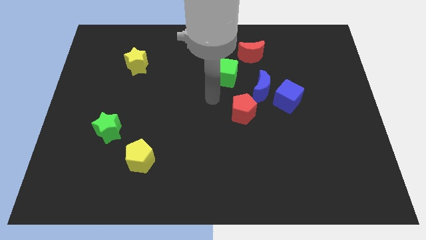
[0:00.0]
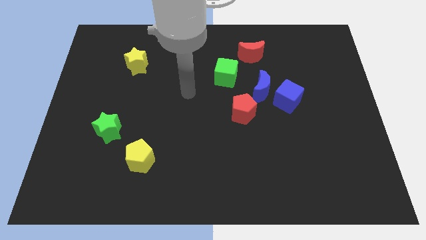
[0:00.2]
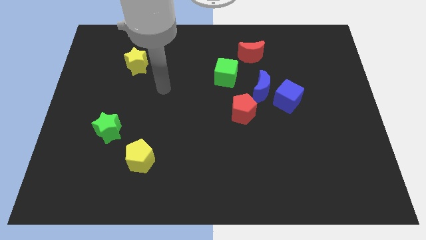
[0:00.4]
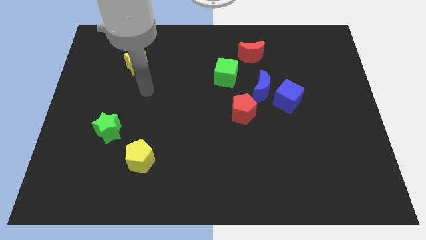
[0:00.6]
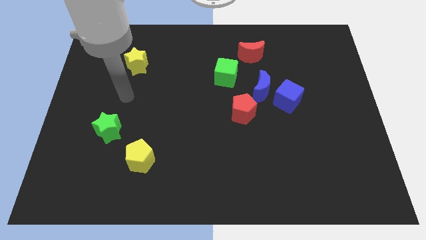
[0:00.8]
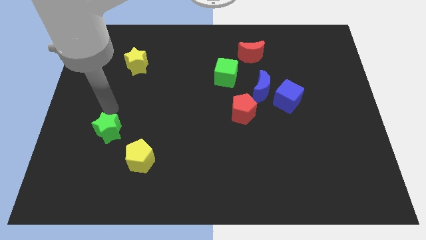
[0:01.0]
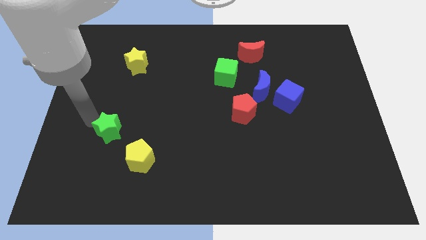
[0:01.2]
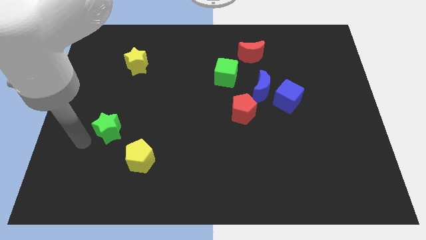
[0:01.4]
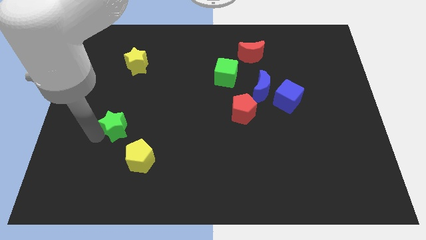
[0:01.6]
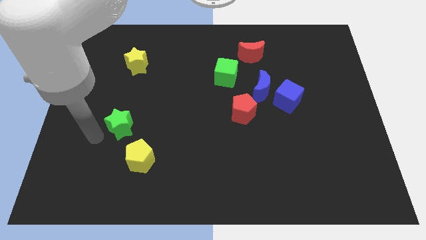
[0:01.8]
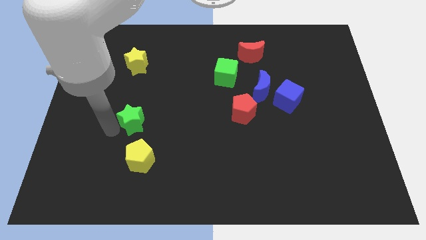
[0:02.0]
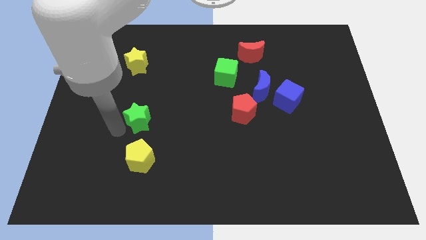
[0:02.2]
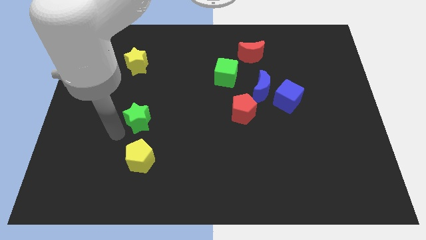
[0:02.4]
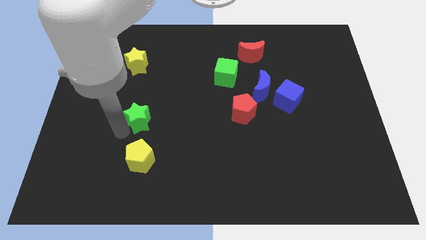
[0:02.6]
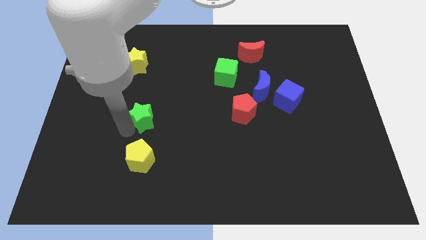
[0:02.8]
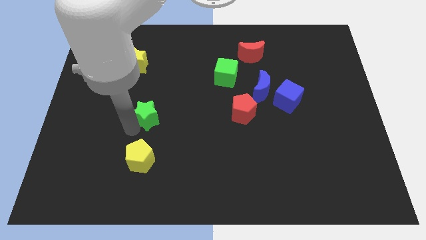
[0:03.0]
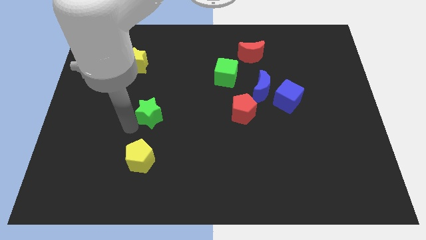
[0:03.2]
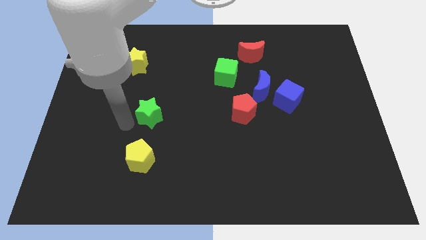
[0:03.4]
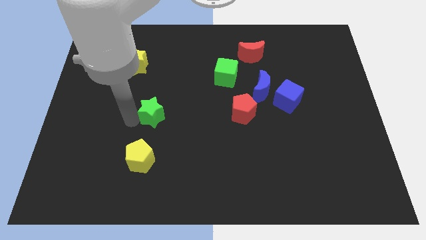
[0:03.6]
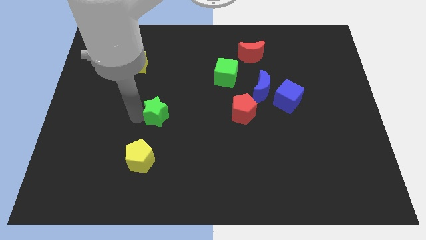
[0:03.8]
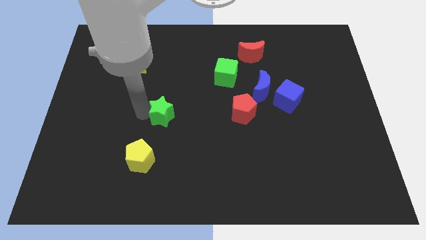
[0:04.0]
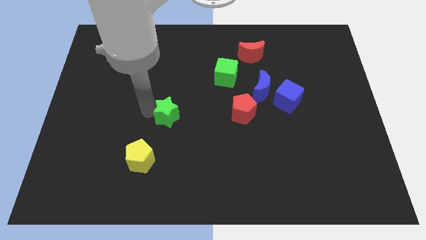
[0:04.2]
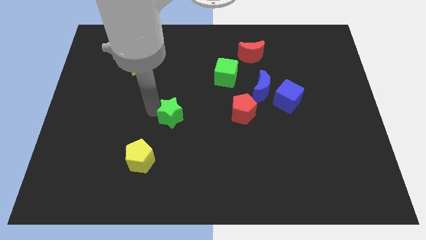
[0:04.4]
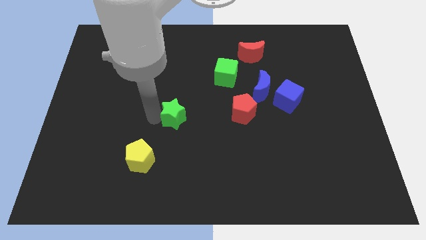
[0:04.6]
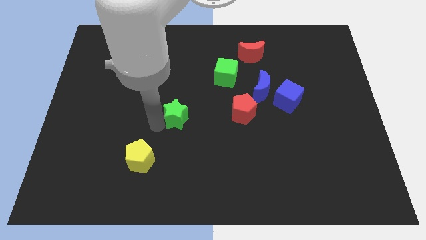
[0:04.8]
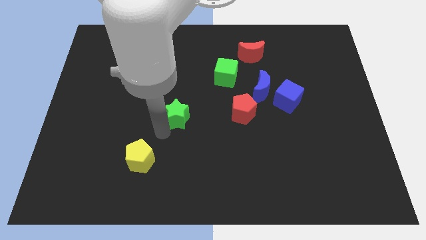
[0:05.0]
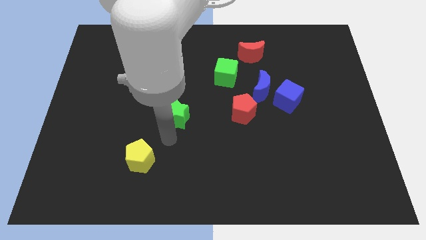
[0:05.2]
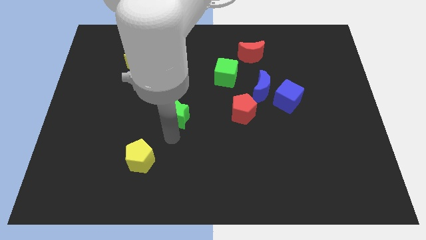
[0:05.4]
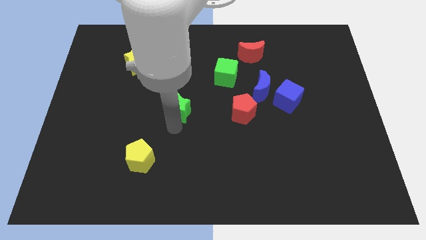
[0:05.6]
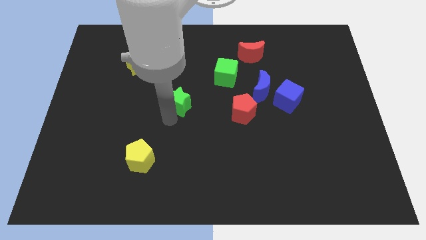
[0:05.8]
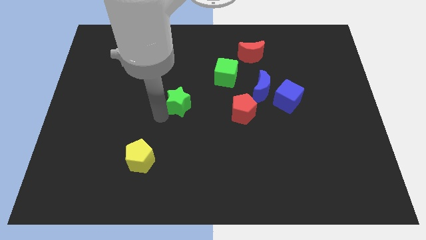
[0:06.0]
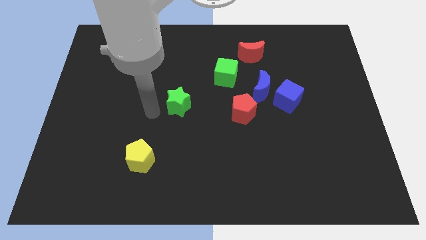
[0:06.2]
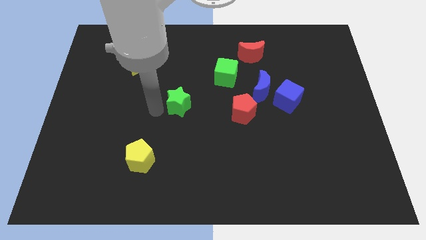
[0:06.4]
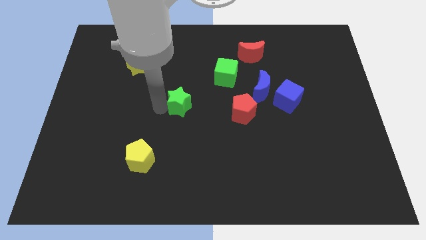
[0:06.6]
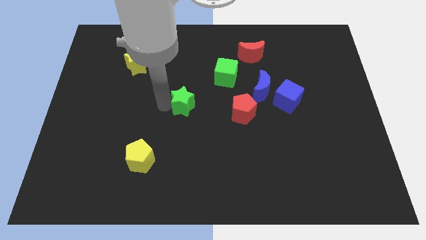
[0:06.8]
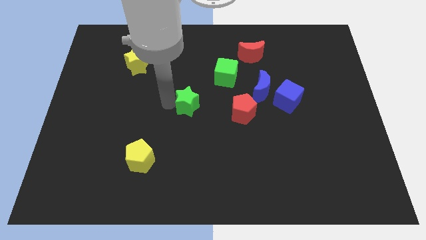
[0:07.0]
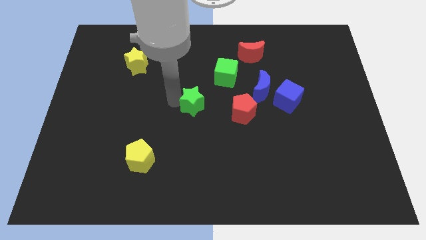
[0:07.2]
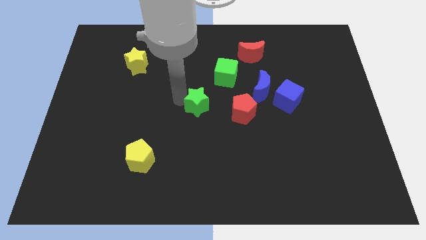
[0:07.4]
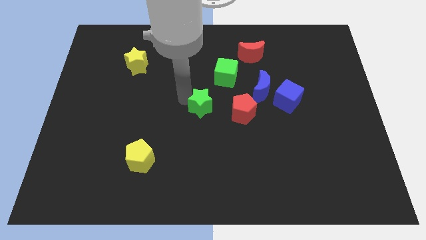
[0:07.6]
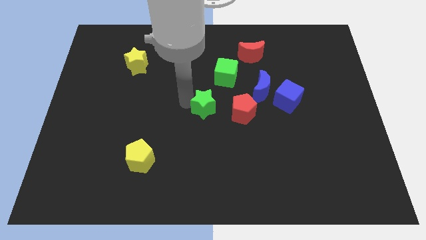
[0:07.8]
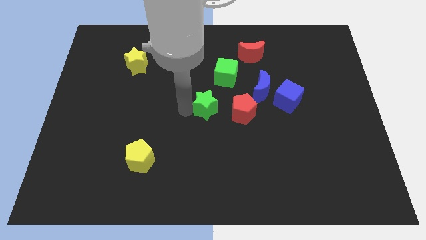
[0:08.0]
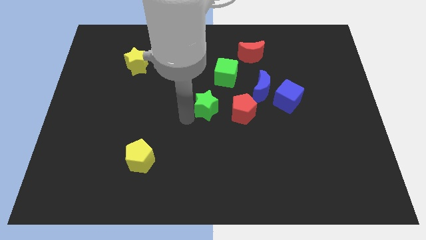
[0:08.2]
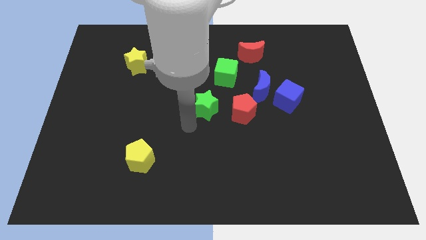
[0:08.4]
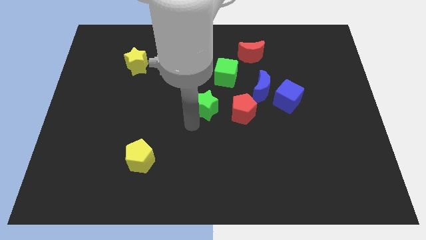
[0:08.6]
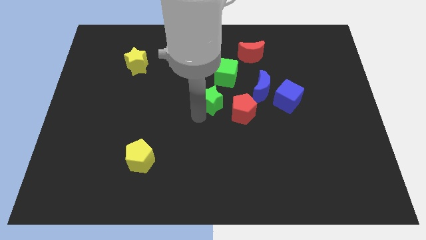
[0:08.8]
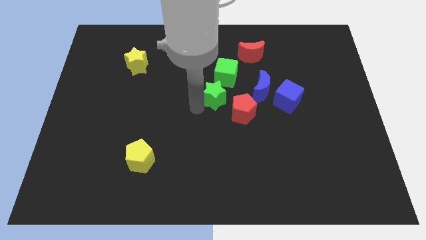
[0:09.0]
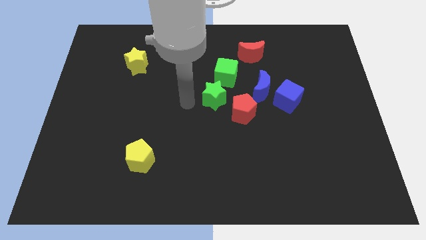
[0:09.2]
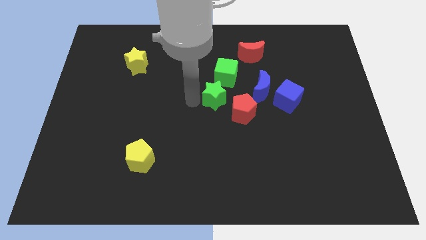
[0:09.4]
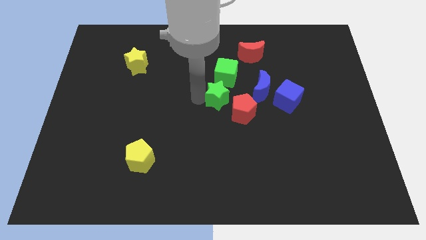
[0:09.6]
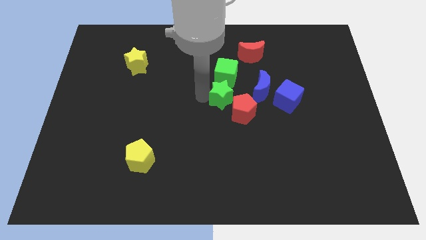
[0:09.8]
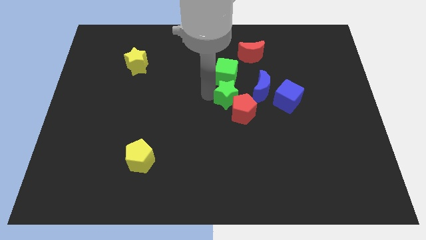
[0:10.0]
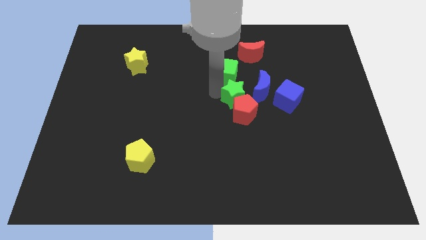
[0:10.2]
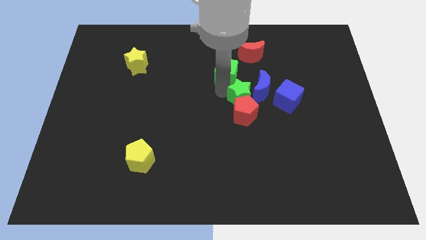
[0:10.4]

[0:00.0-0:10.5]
slide the green star towards the blue moon

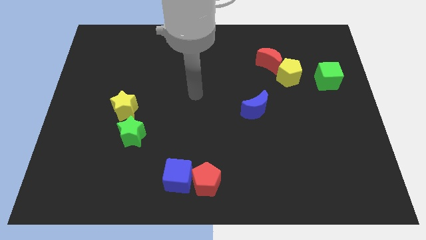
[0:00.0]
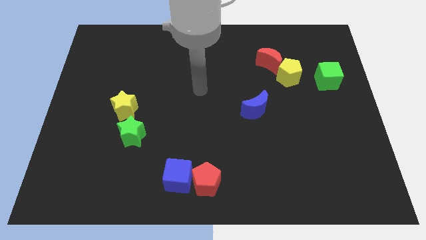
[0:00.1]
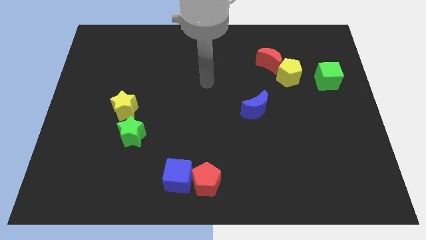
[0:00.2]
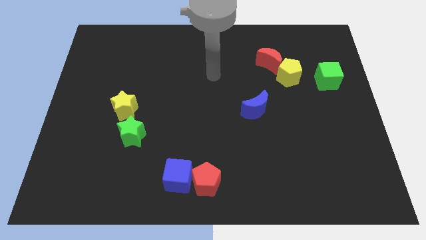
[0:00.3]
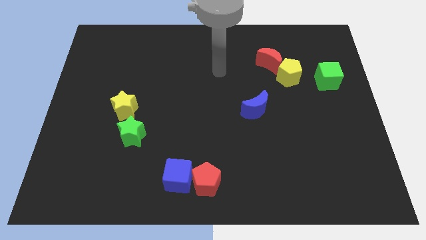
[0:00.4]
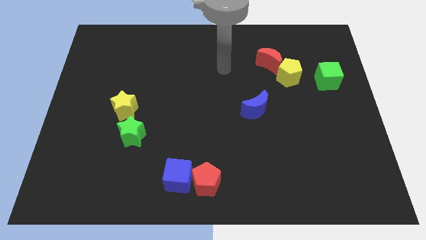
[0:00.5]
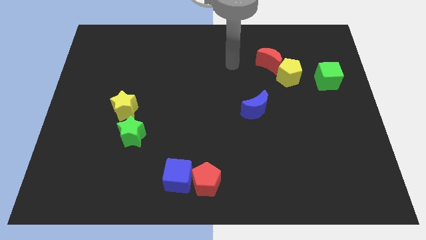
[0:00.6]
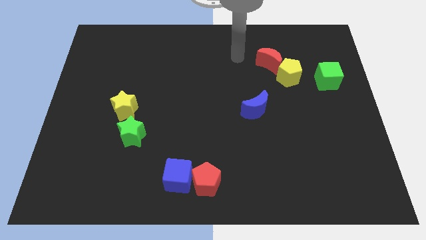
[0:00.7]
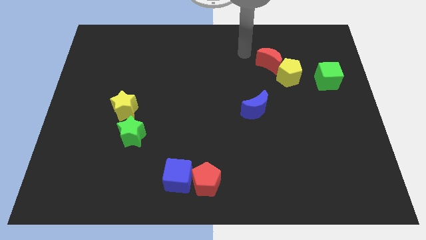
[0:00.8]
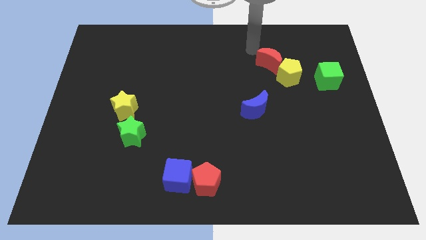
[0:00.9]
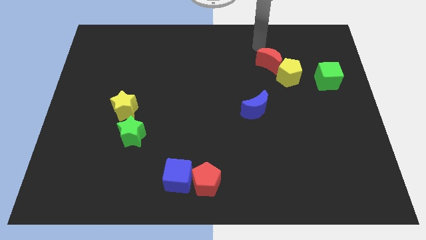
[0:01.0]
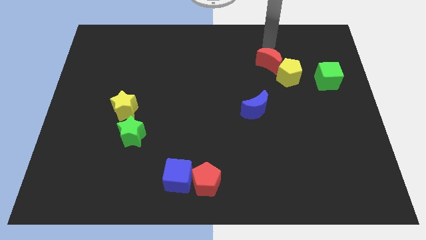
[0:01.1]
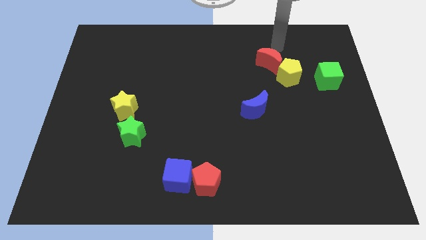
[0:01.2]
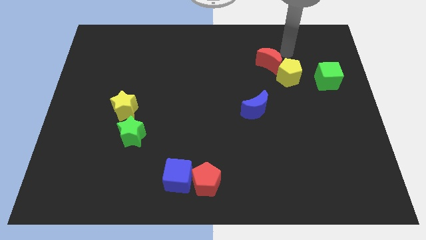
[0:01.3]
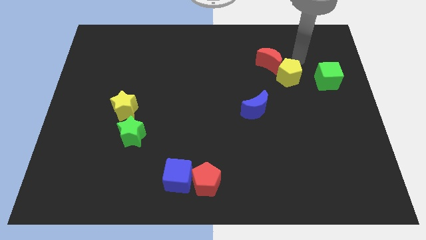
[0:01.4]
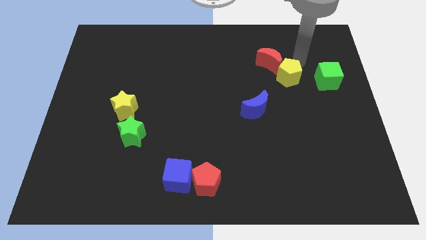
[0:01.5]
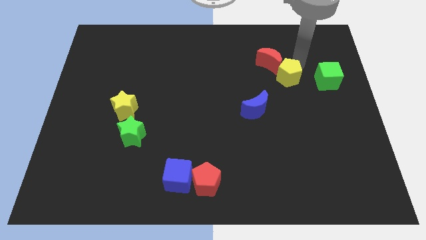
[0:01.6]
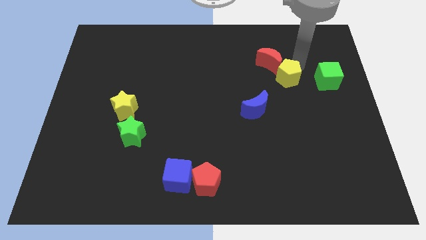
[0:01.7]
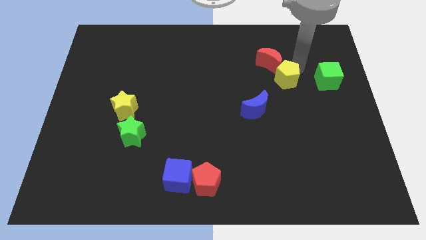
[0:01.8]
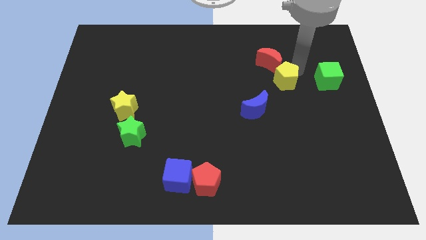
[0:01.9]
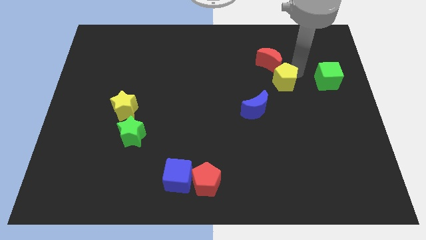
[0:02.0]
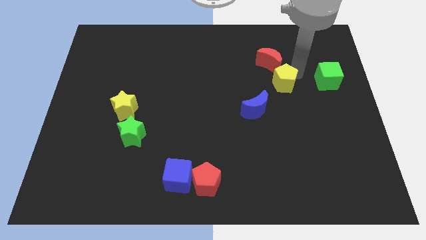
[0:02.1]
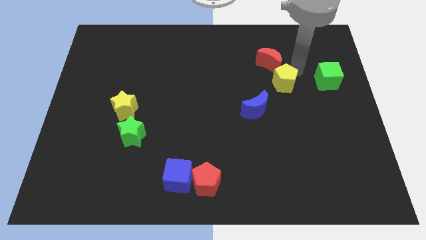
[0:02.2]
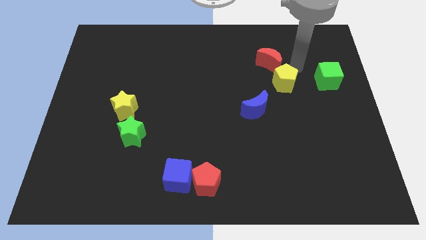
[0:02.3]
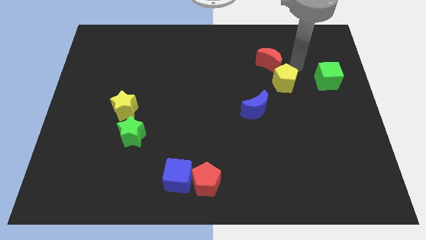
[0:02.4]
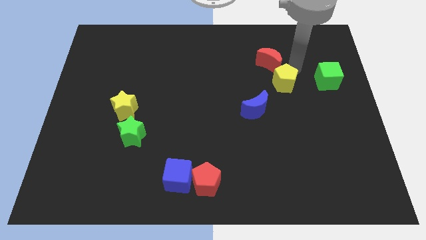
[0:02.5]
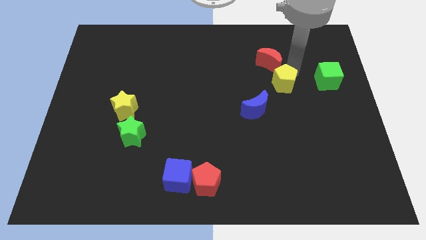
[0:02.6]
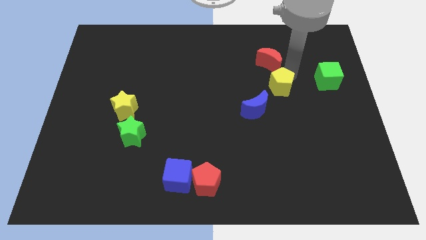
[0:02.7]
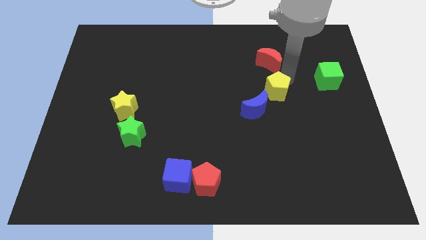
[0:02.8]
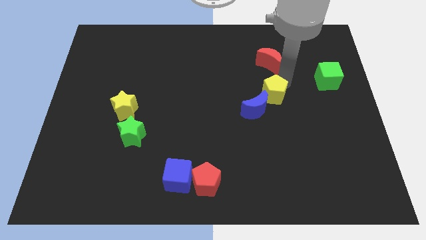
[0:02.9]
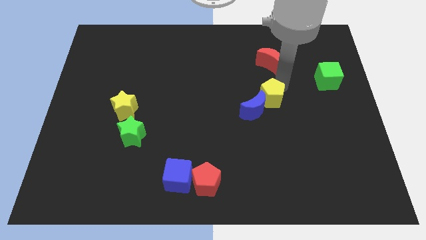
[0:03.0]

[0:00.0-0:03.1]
slide the yellow pentagon close to the blue moon
